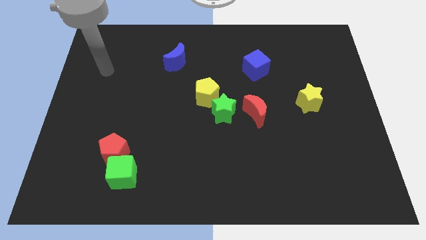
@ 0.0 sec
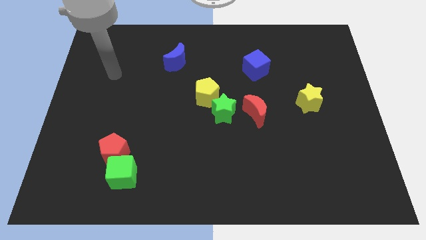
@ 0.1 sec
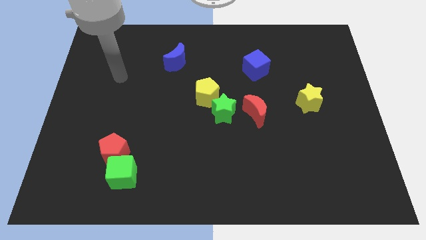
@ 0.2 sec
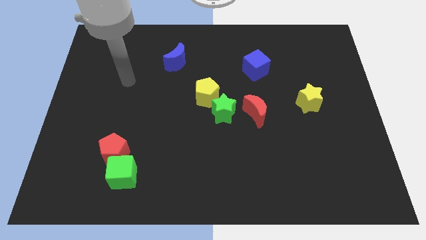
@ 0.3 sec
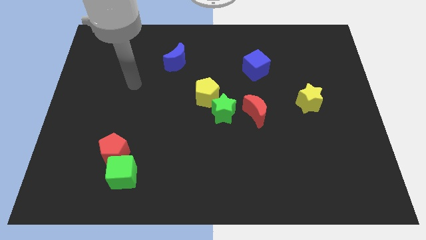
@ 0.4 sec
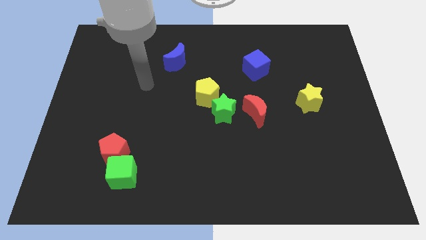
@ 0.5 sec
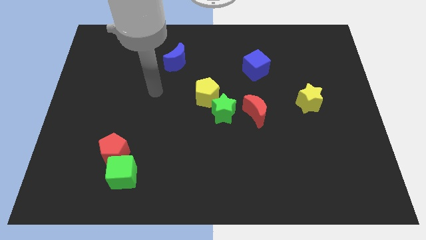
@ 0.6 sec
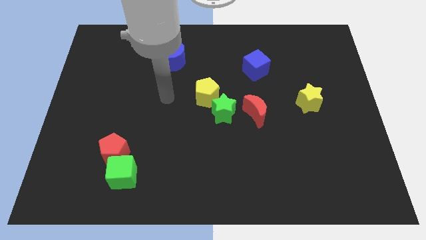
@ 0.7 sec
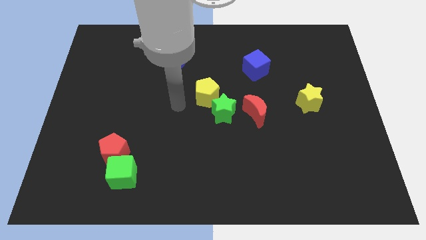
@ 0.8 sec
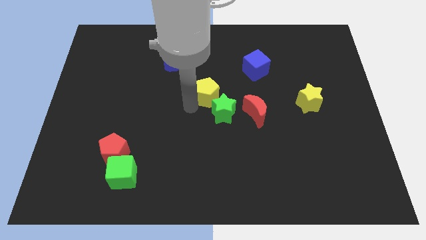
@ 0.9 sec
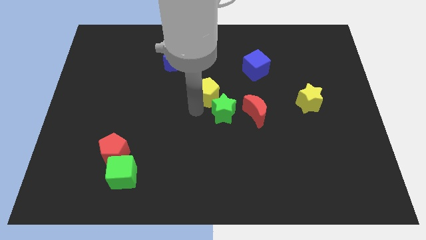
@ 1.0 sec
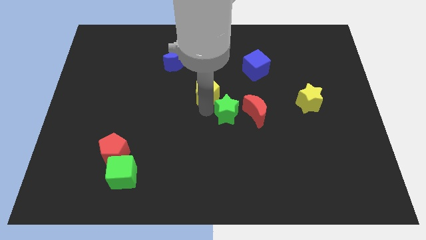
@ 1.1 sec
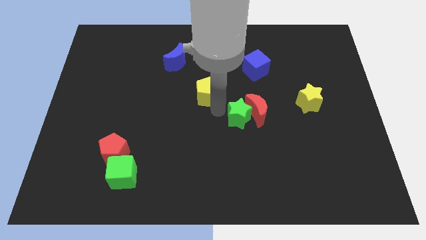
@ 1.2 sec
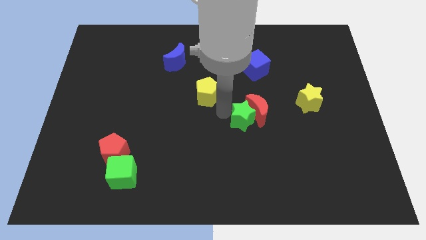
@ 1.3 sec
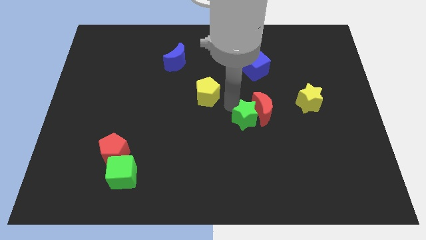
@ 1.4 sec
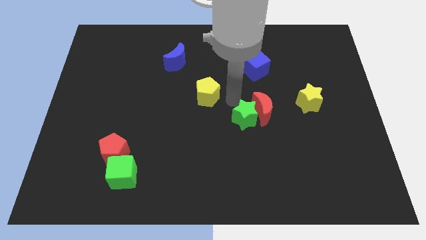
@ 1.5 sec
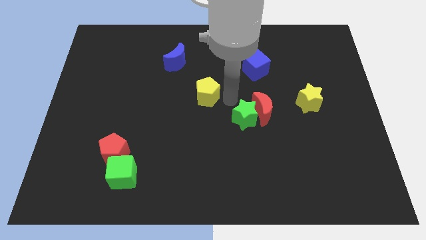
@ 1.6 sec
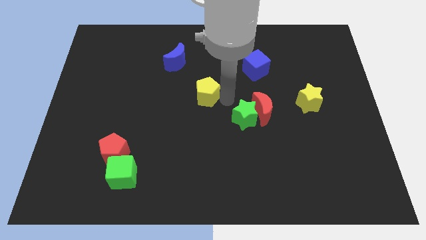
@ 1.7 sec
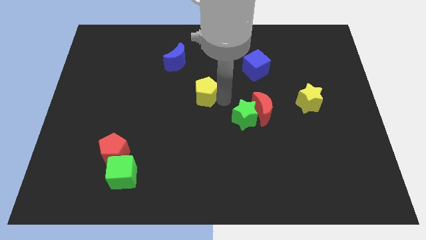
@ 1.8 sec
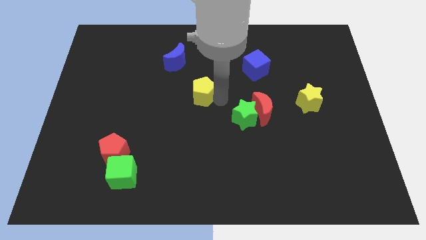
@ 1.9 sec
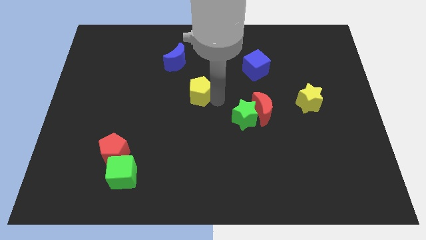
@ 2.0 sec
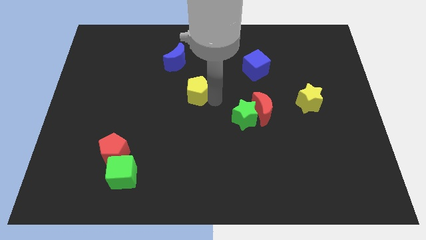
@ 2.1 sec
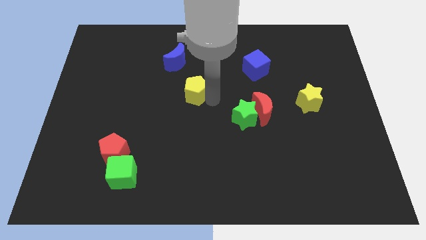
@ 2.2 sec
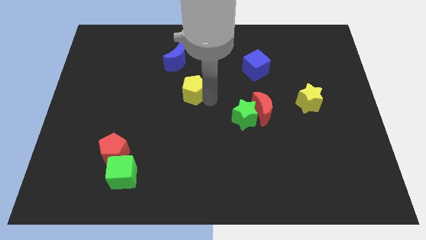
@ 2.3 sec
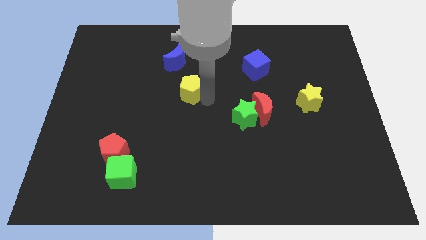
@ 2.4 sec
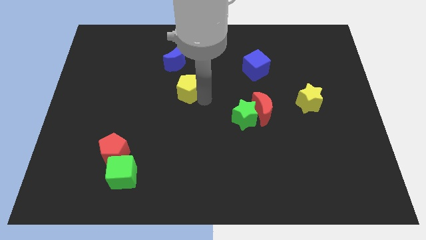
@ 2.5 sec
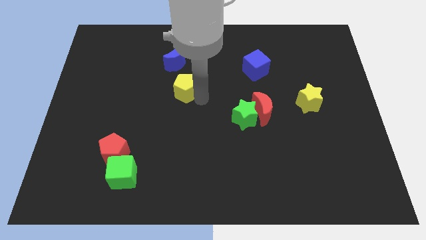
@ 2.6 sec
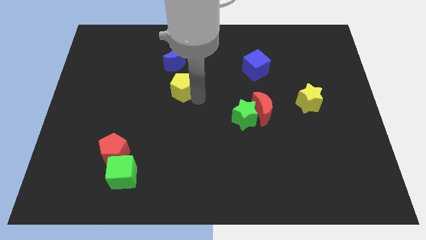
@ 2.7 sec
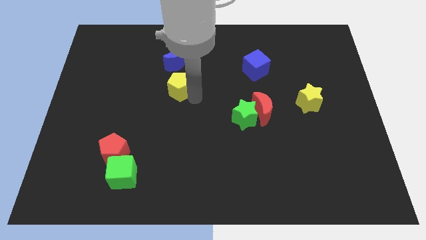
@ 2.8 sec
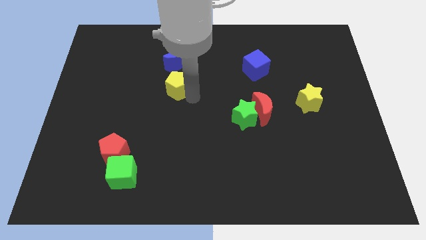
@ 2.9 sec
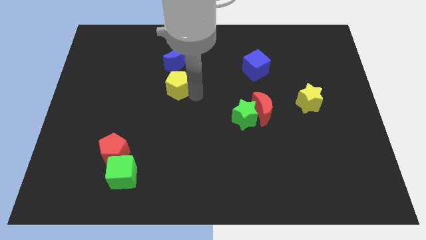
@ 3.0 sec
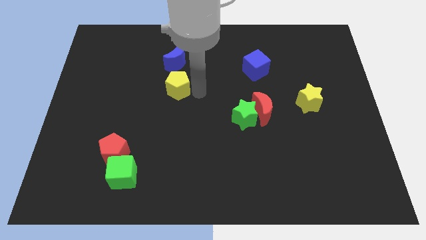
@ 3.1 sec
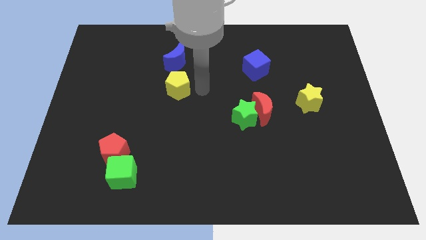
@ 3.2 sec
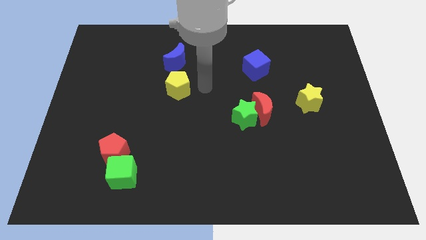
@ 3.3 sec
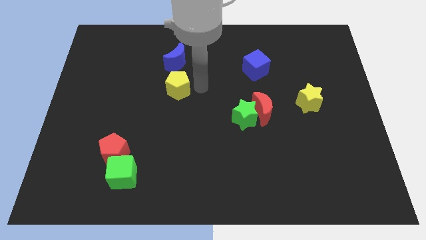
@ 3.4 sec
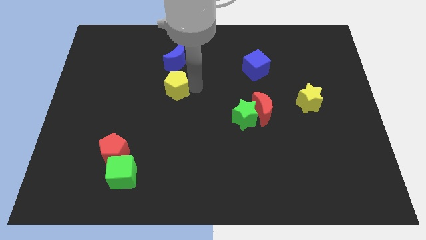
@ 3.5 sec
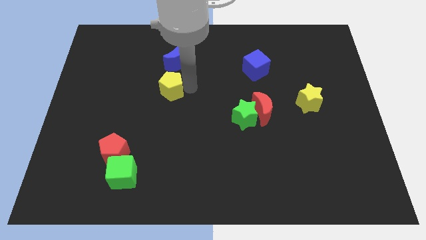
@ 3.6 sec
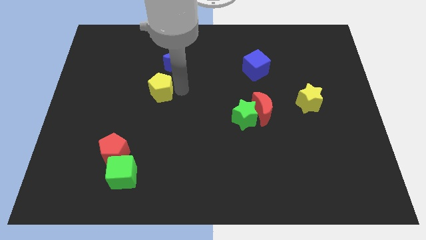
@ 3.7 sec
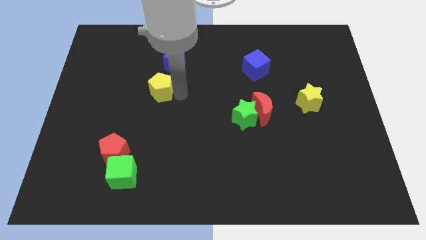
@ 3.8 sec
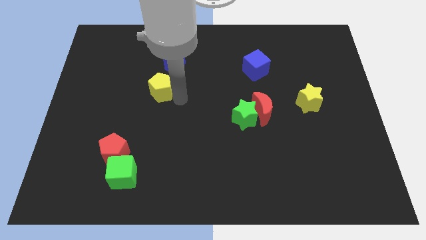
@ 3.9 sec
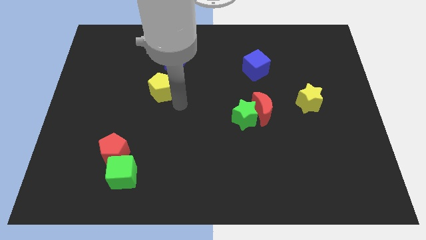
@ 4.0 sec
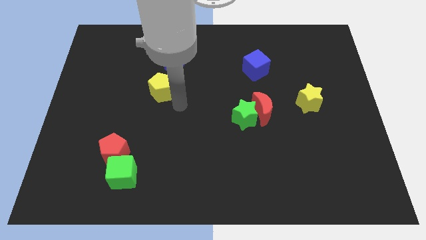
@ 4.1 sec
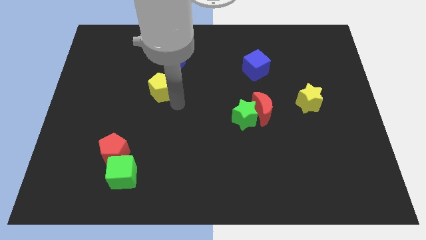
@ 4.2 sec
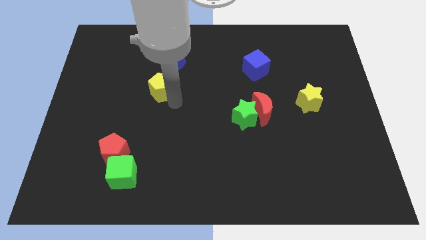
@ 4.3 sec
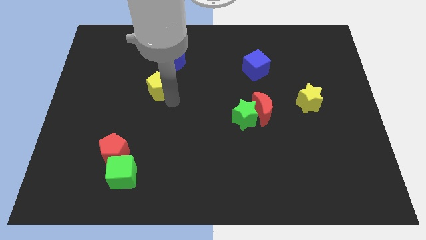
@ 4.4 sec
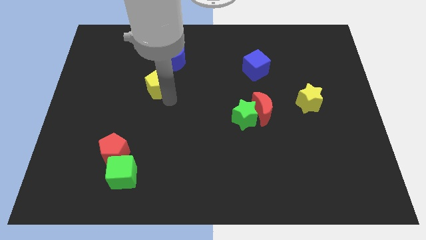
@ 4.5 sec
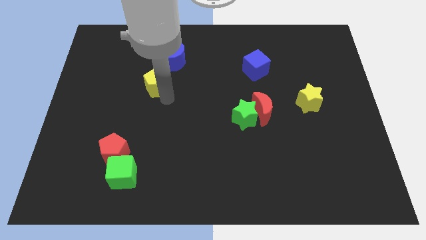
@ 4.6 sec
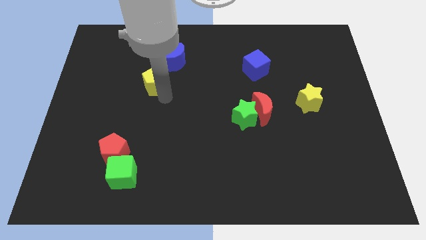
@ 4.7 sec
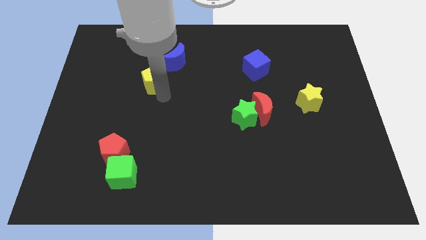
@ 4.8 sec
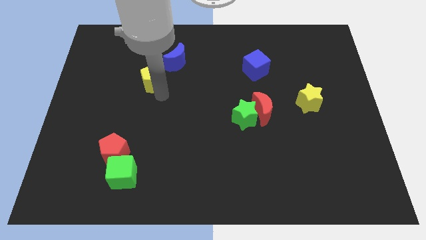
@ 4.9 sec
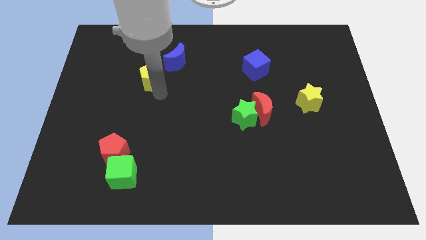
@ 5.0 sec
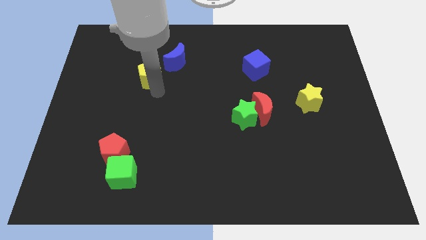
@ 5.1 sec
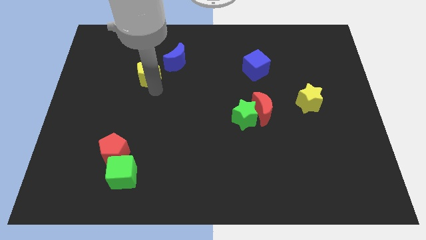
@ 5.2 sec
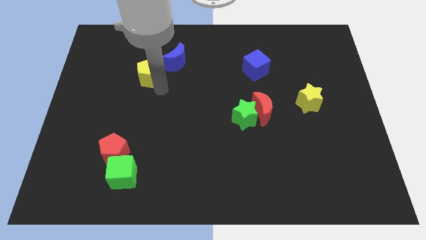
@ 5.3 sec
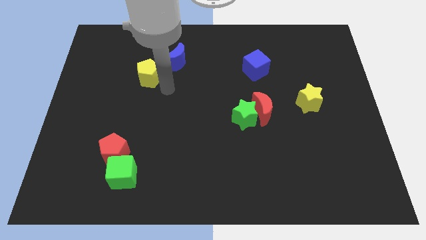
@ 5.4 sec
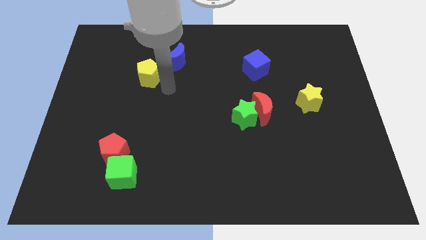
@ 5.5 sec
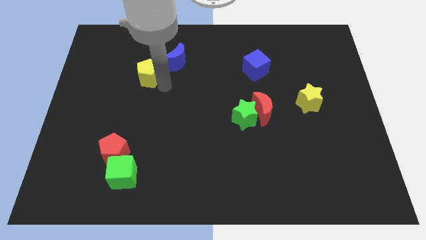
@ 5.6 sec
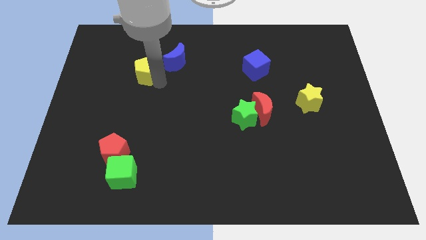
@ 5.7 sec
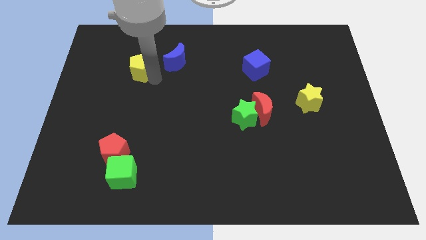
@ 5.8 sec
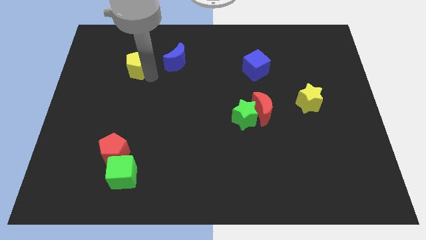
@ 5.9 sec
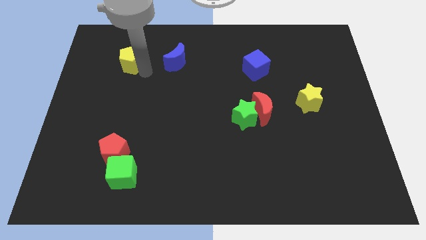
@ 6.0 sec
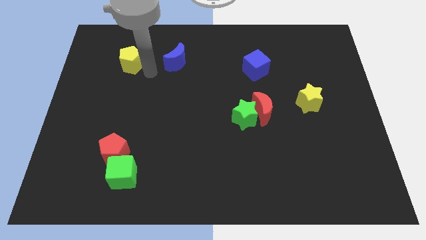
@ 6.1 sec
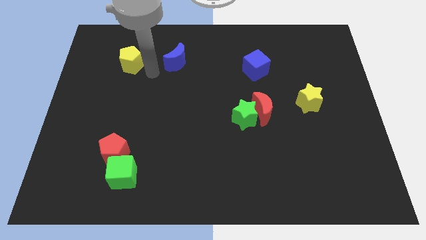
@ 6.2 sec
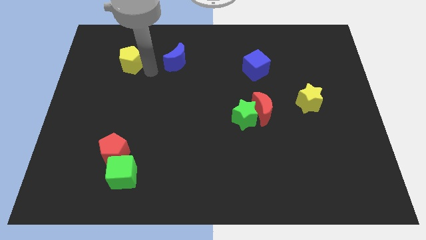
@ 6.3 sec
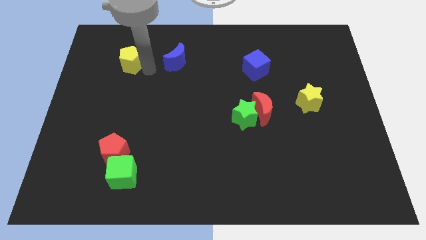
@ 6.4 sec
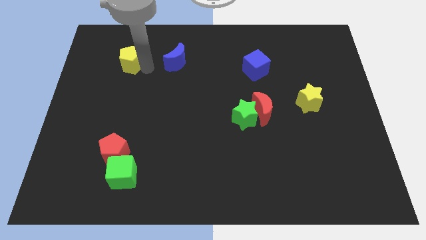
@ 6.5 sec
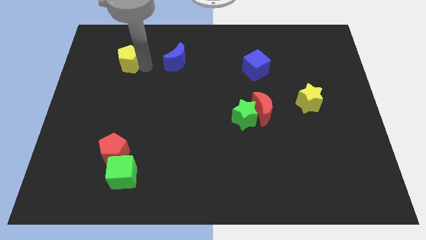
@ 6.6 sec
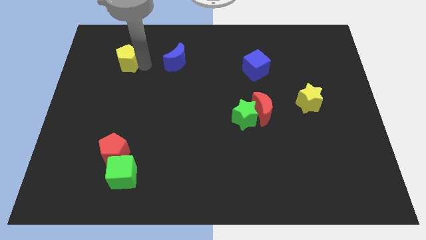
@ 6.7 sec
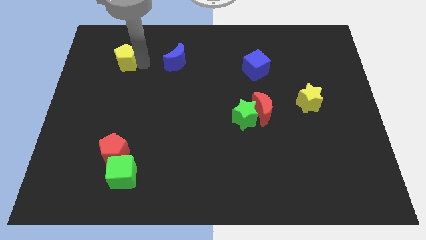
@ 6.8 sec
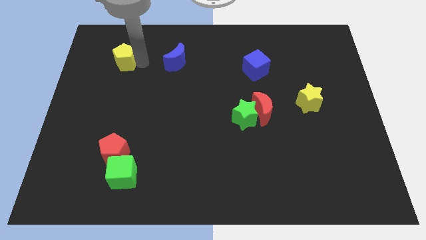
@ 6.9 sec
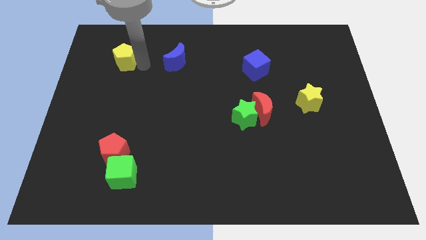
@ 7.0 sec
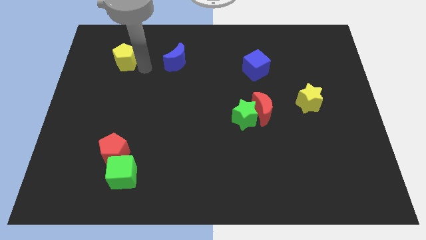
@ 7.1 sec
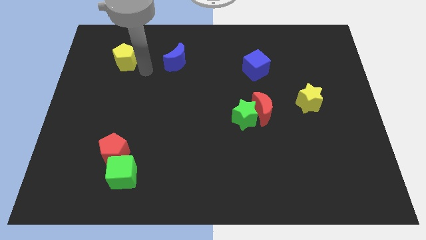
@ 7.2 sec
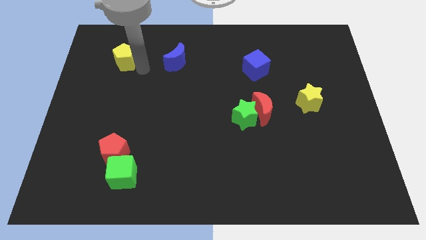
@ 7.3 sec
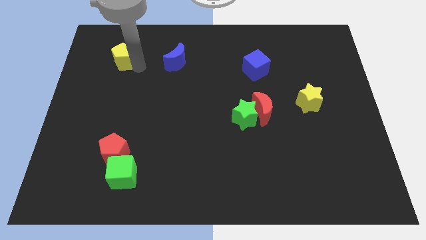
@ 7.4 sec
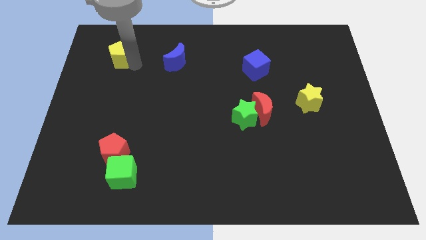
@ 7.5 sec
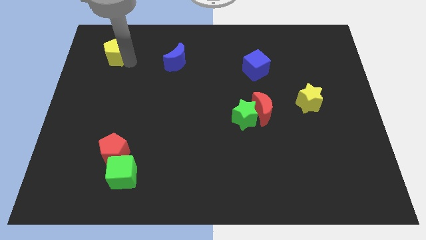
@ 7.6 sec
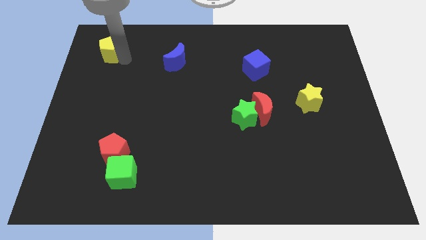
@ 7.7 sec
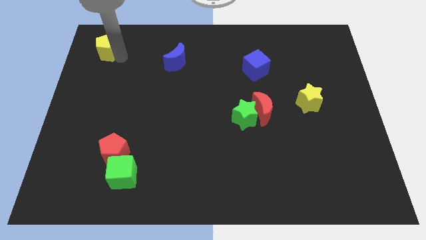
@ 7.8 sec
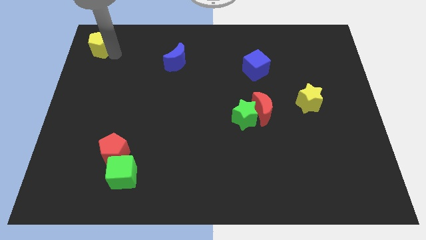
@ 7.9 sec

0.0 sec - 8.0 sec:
move the yellow pentagon to the upper left corner
